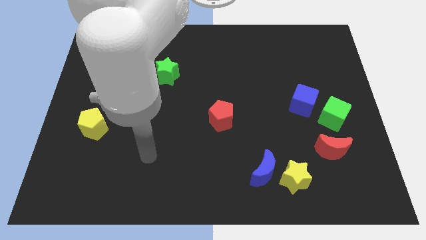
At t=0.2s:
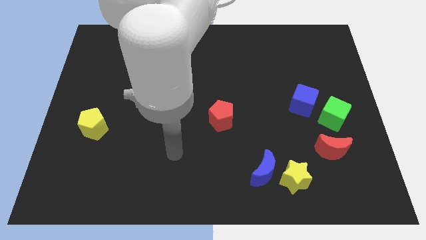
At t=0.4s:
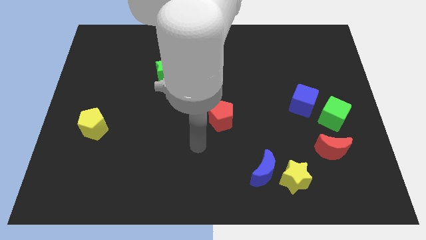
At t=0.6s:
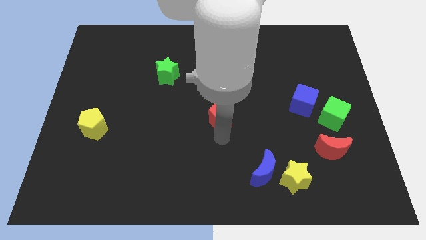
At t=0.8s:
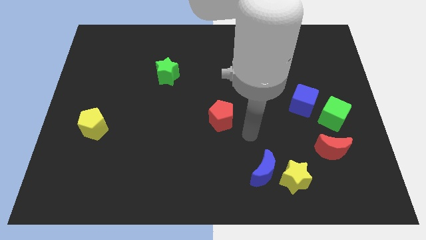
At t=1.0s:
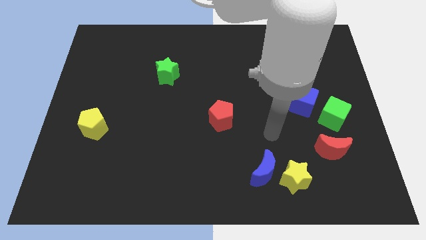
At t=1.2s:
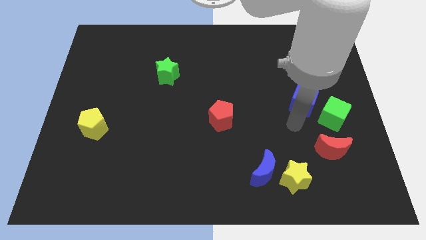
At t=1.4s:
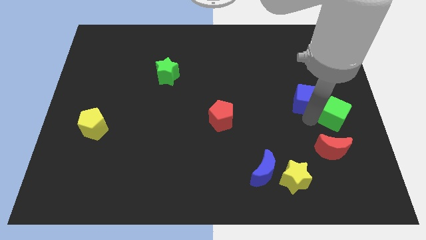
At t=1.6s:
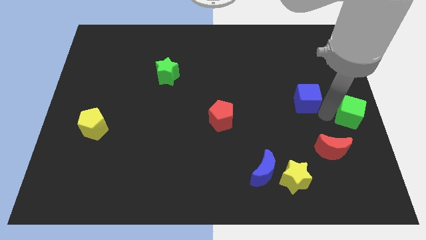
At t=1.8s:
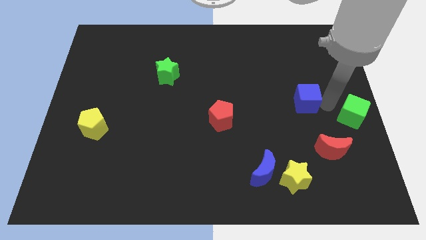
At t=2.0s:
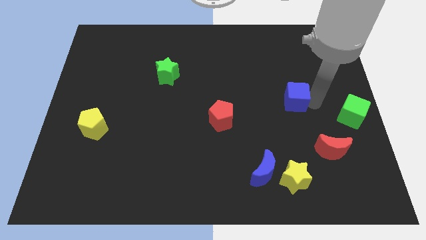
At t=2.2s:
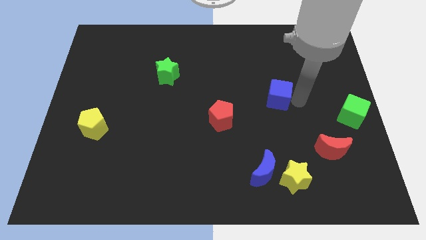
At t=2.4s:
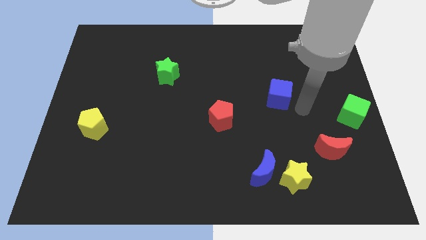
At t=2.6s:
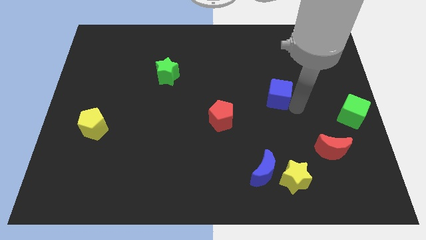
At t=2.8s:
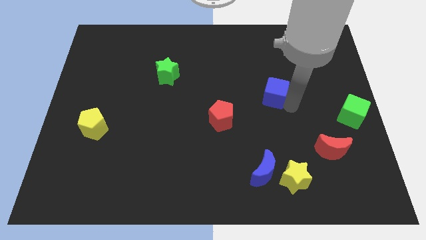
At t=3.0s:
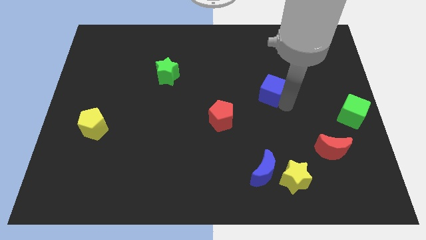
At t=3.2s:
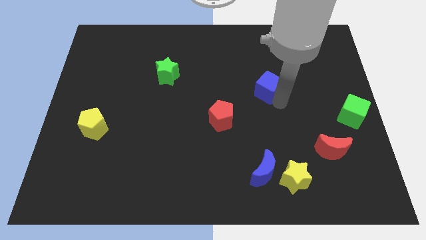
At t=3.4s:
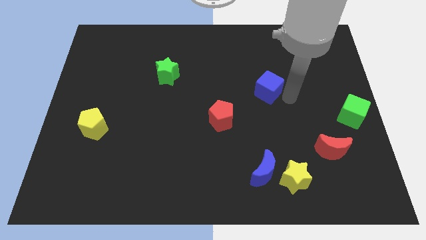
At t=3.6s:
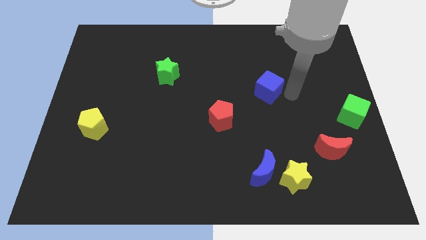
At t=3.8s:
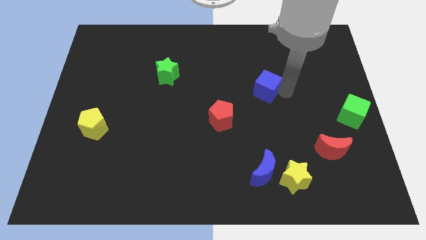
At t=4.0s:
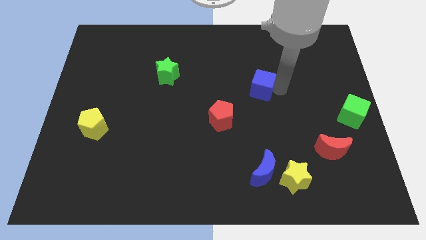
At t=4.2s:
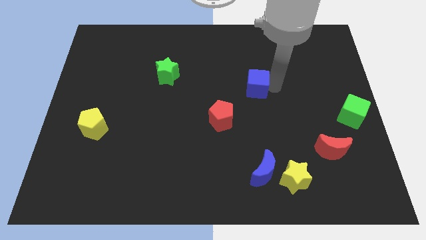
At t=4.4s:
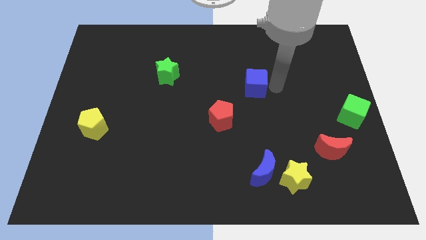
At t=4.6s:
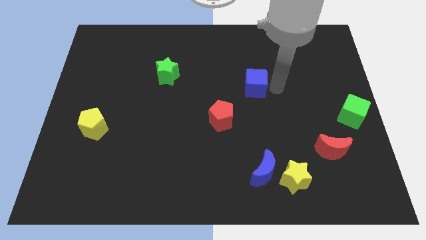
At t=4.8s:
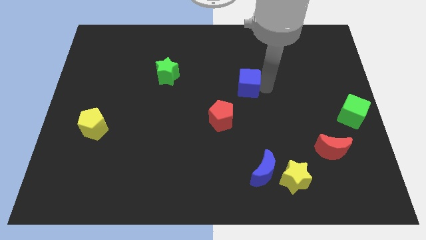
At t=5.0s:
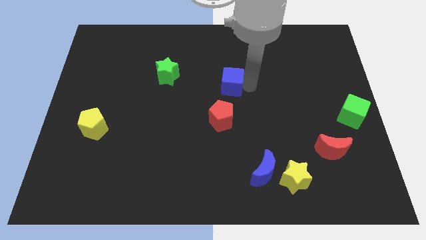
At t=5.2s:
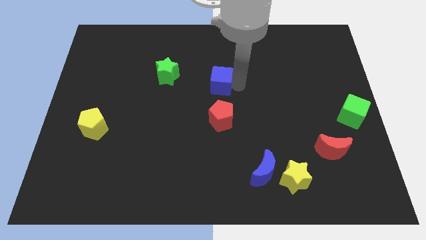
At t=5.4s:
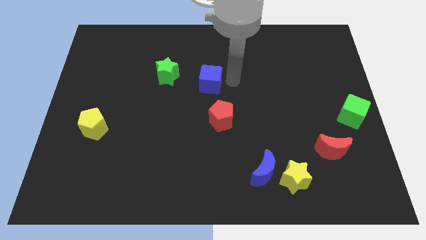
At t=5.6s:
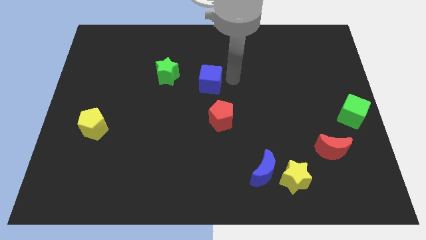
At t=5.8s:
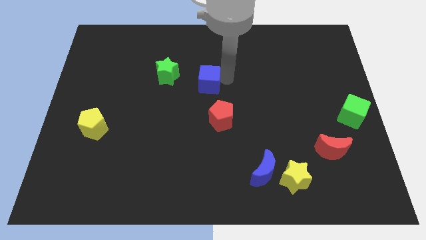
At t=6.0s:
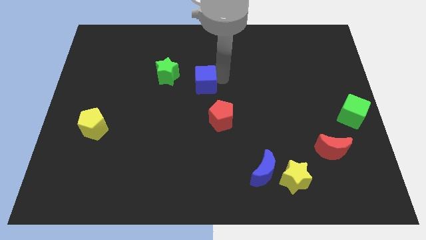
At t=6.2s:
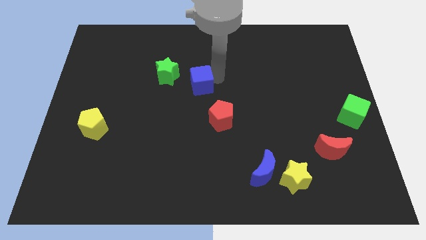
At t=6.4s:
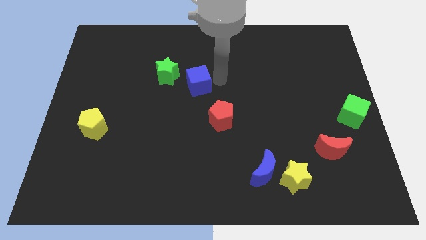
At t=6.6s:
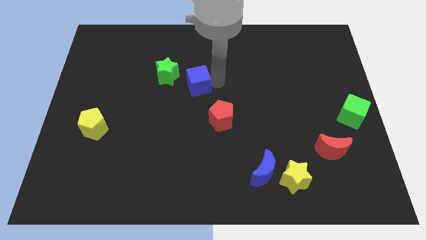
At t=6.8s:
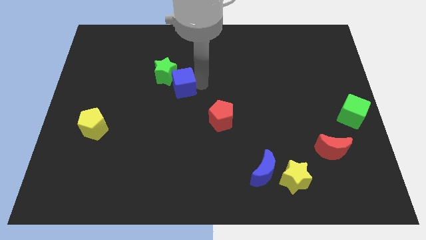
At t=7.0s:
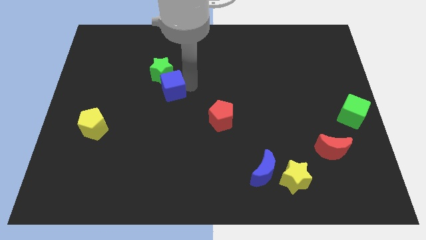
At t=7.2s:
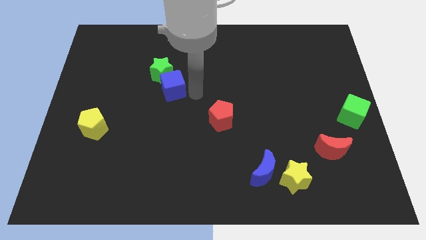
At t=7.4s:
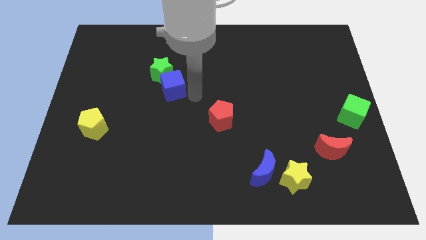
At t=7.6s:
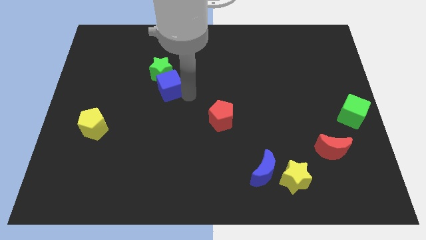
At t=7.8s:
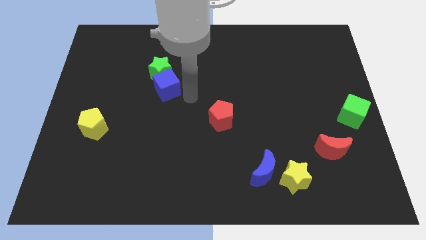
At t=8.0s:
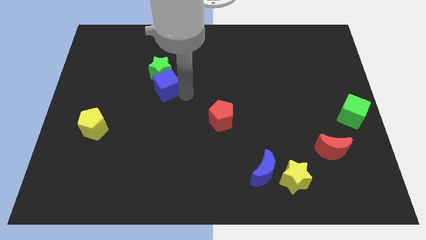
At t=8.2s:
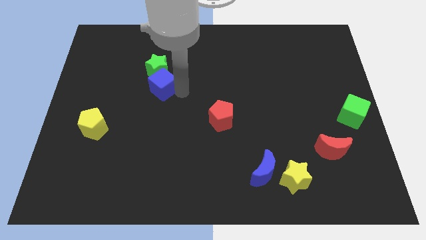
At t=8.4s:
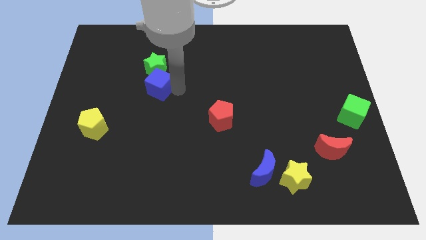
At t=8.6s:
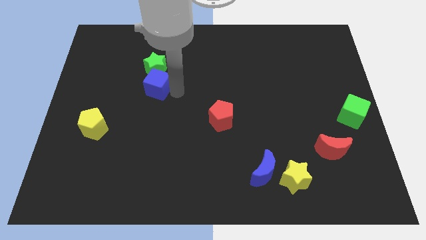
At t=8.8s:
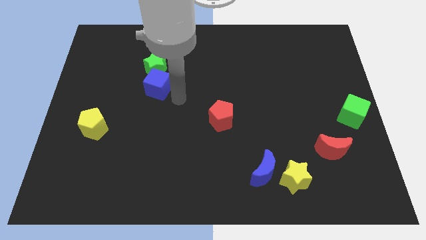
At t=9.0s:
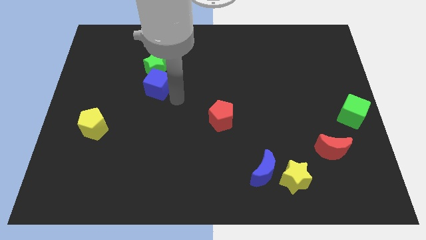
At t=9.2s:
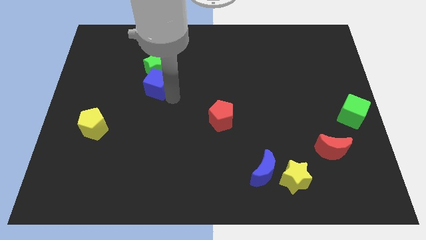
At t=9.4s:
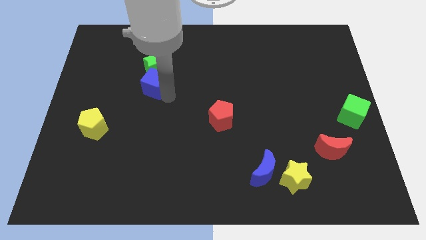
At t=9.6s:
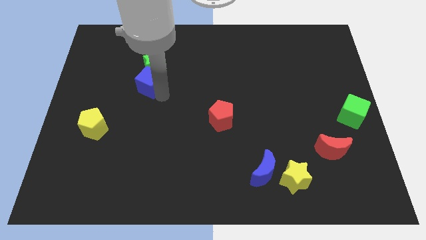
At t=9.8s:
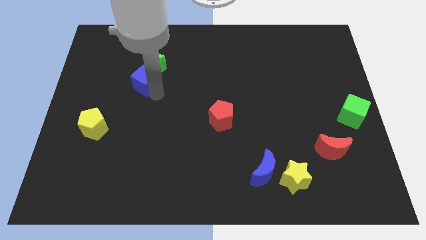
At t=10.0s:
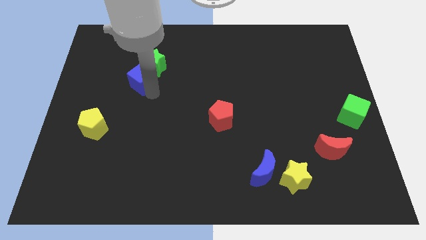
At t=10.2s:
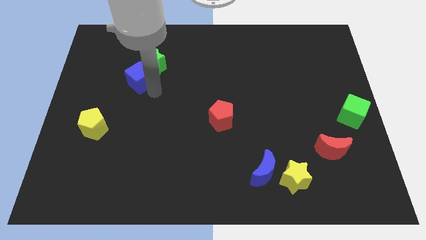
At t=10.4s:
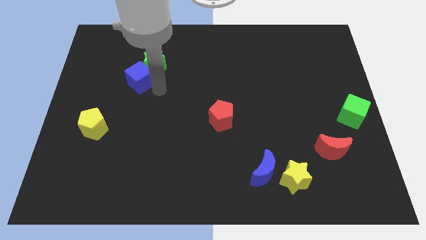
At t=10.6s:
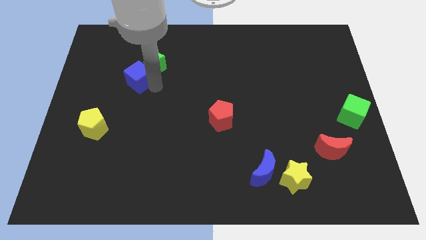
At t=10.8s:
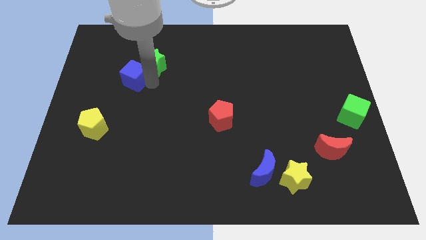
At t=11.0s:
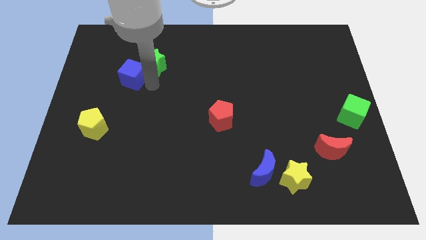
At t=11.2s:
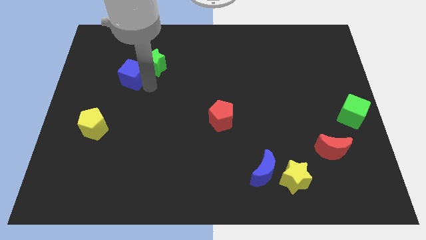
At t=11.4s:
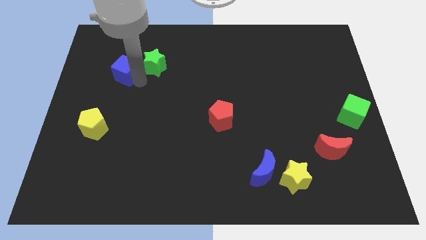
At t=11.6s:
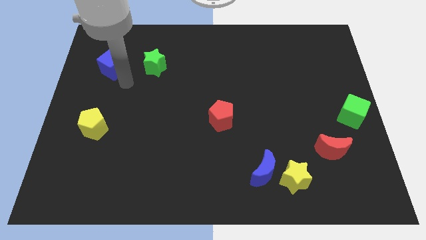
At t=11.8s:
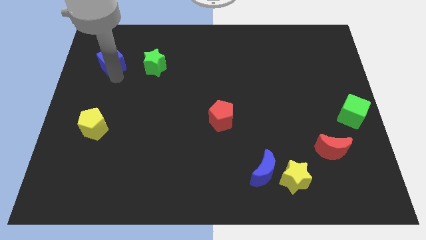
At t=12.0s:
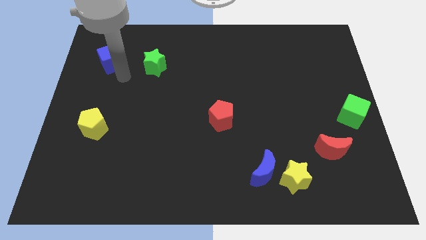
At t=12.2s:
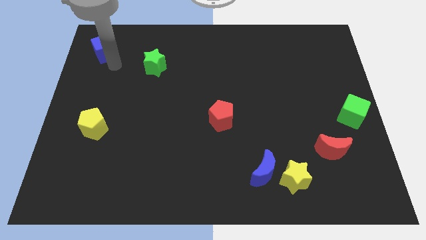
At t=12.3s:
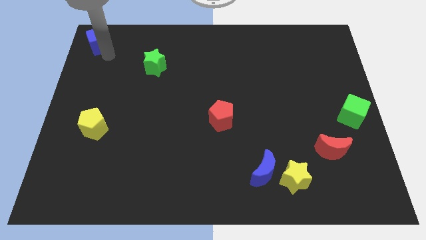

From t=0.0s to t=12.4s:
slide the blue cube to the top left
